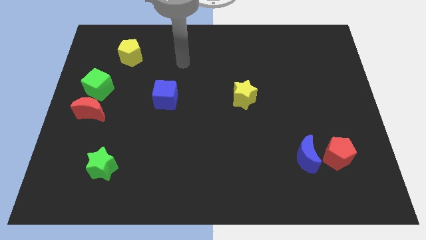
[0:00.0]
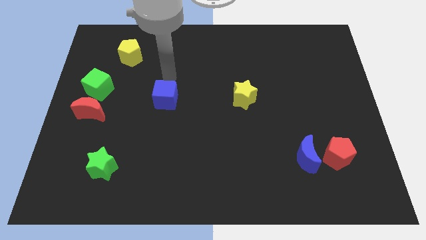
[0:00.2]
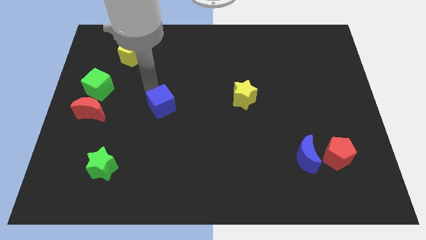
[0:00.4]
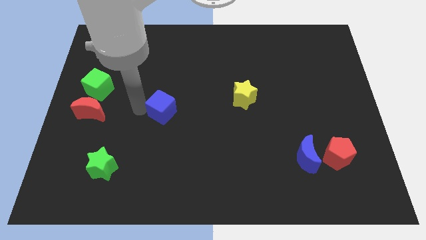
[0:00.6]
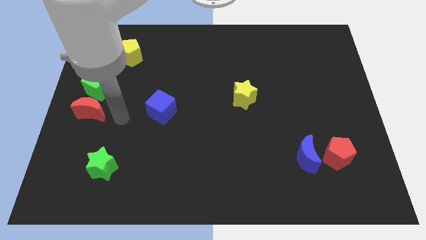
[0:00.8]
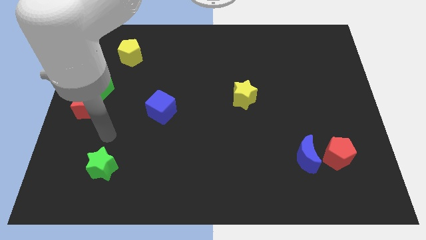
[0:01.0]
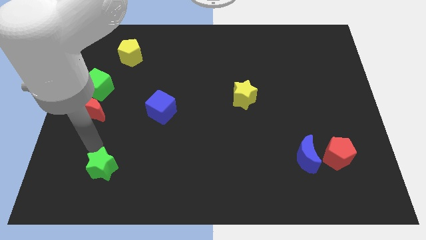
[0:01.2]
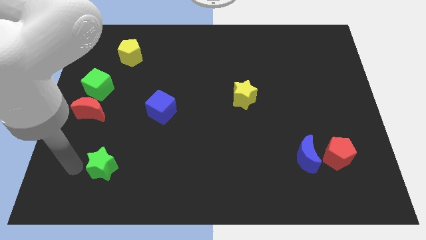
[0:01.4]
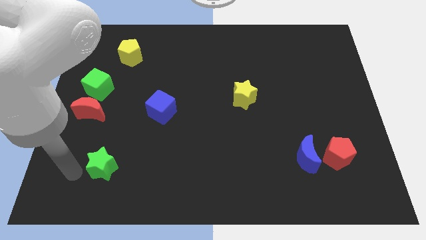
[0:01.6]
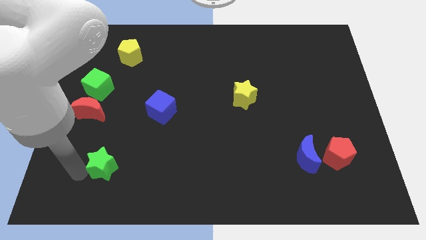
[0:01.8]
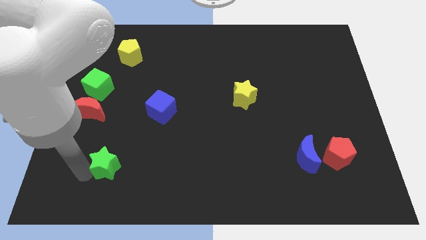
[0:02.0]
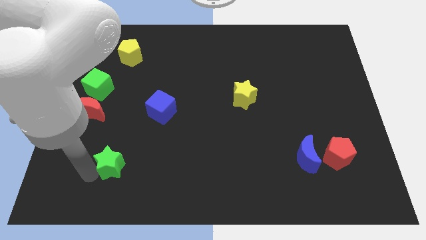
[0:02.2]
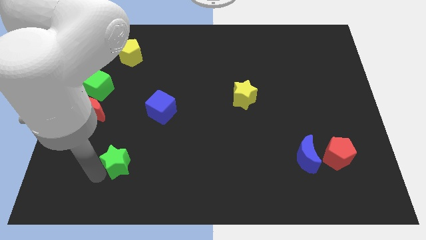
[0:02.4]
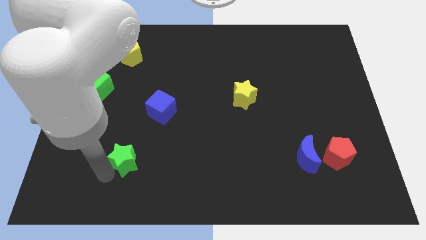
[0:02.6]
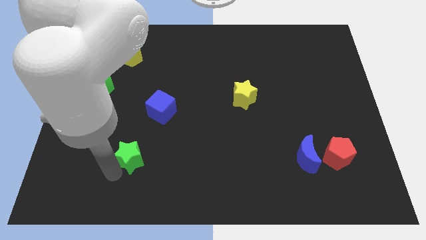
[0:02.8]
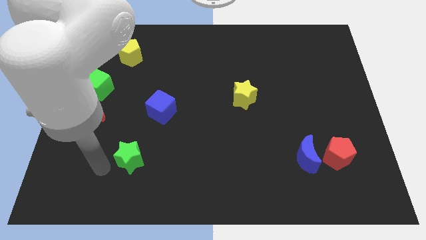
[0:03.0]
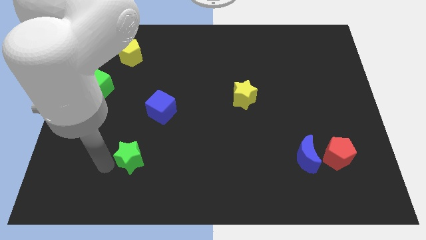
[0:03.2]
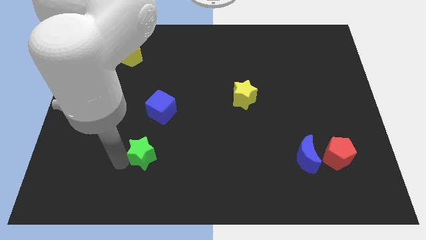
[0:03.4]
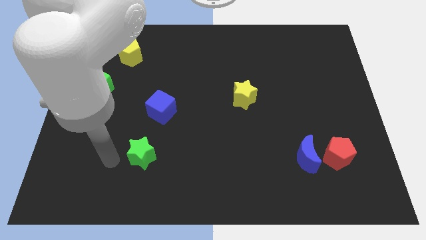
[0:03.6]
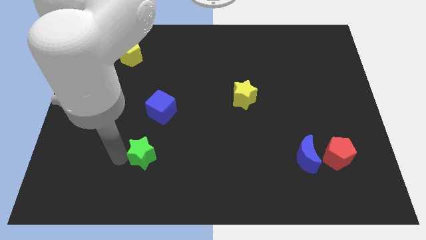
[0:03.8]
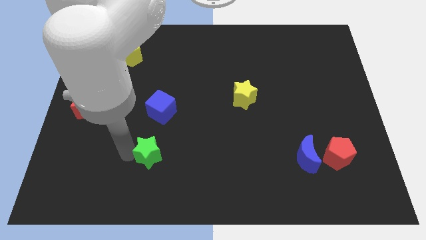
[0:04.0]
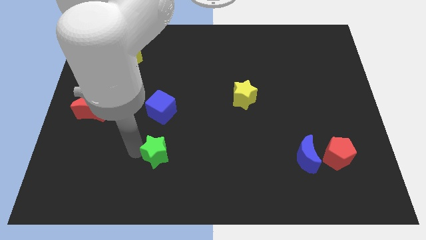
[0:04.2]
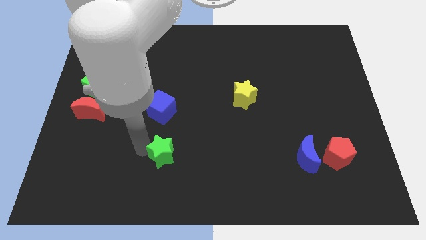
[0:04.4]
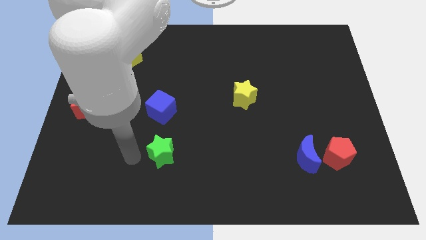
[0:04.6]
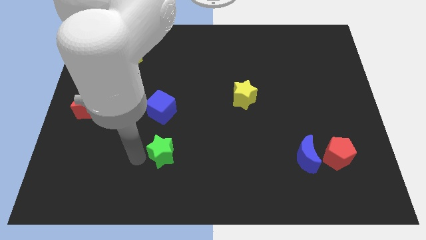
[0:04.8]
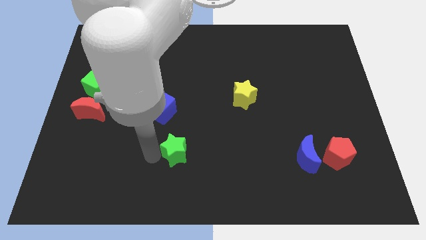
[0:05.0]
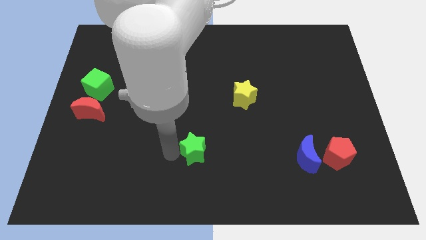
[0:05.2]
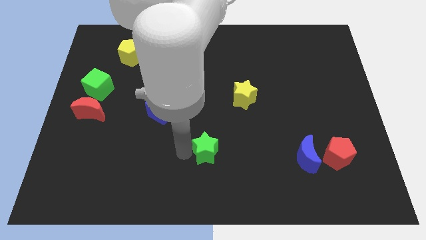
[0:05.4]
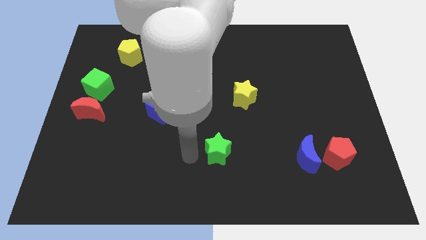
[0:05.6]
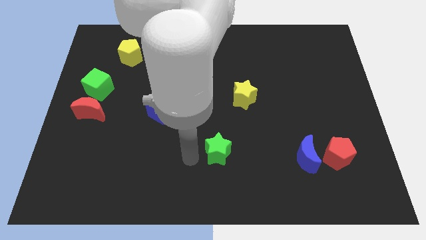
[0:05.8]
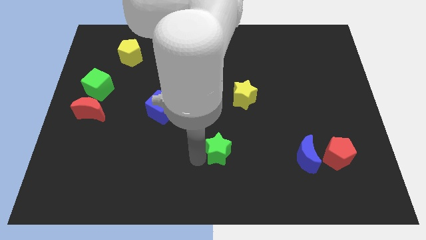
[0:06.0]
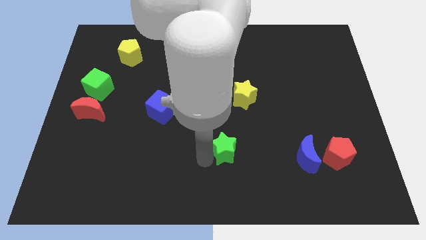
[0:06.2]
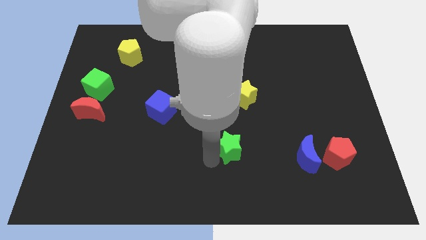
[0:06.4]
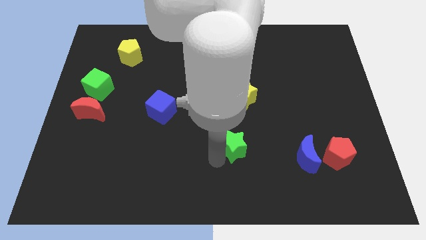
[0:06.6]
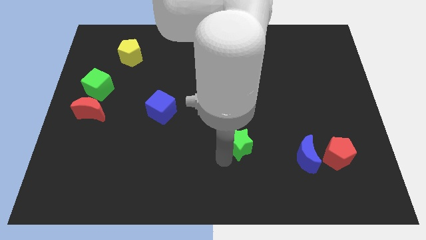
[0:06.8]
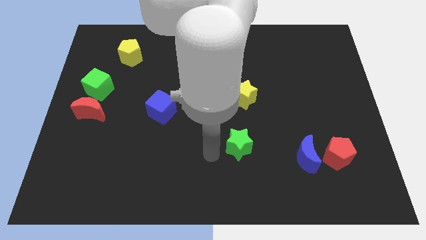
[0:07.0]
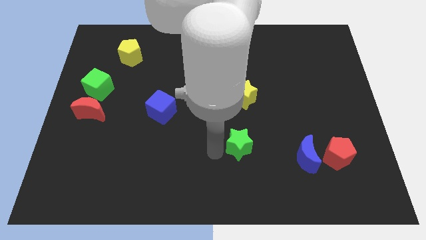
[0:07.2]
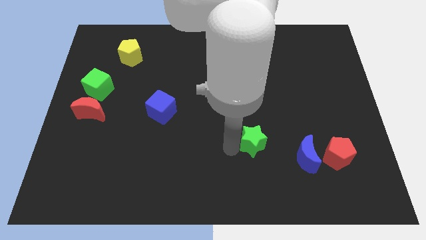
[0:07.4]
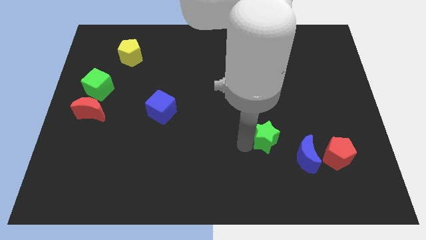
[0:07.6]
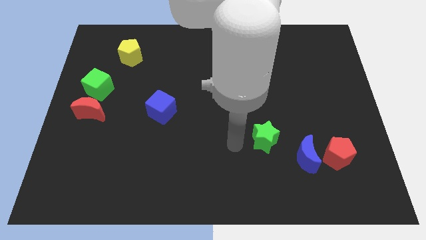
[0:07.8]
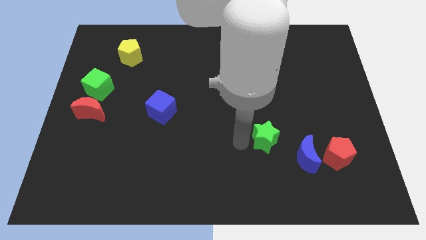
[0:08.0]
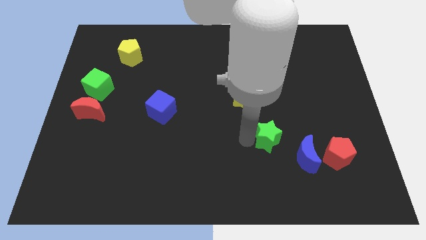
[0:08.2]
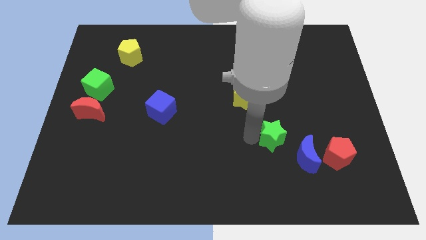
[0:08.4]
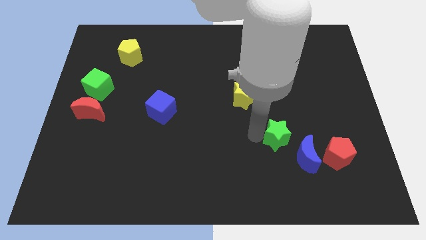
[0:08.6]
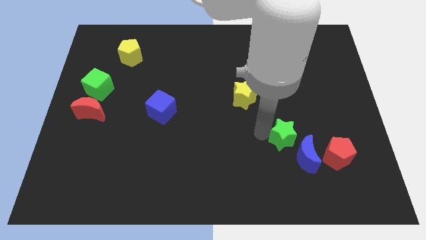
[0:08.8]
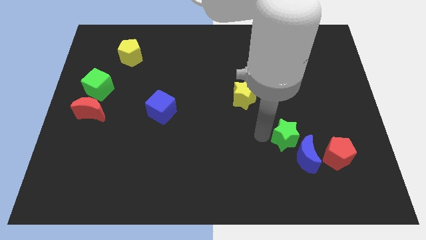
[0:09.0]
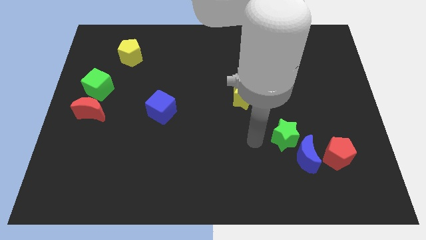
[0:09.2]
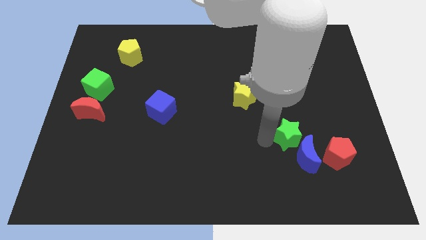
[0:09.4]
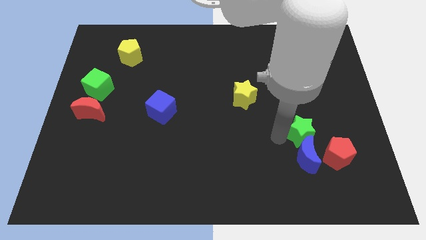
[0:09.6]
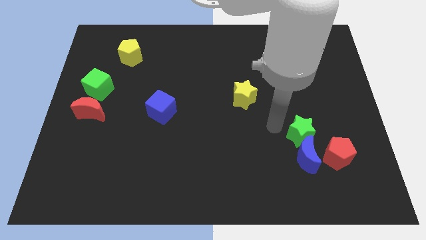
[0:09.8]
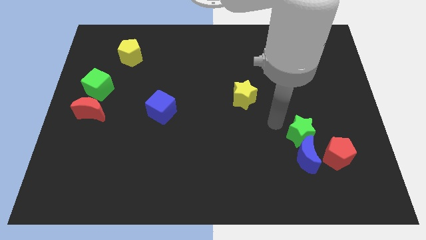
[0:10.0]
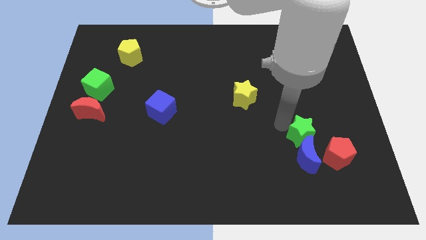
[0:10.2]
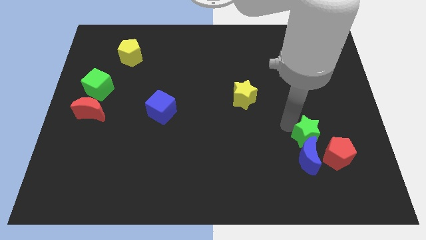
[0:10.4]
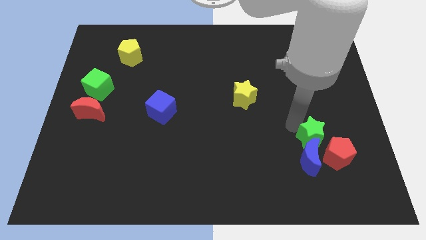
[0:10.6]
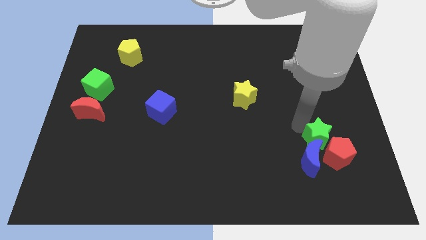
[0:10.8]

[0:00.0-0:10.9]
slide the green star to the red pentagon

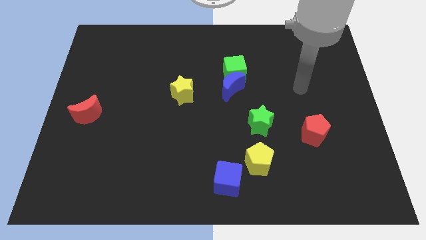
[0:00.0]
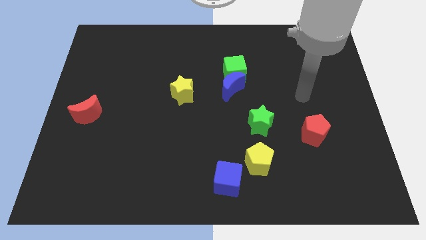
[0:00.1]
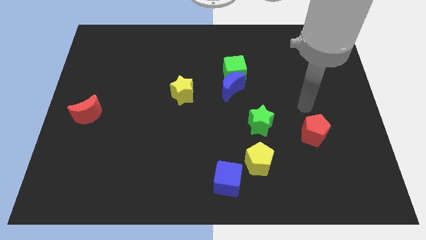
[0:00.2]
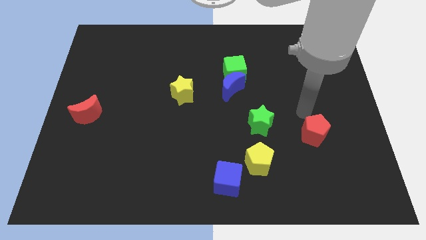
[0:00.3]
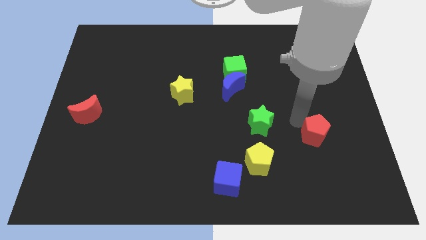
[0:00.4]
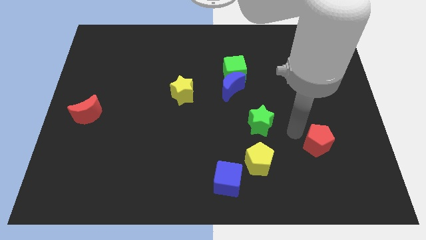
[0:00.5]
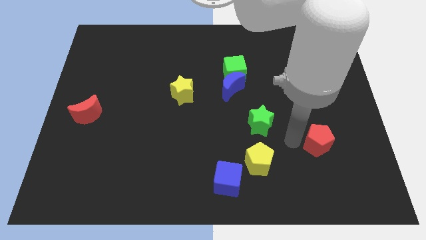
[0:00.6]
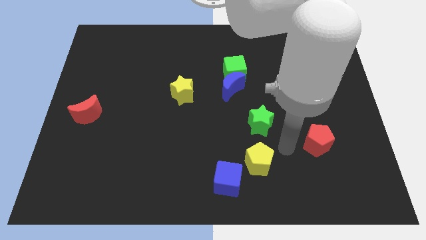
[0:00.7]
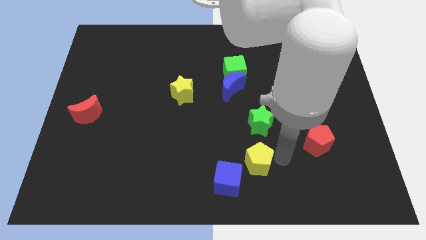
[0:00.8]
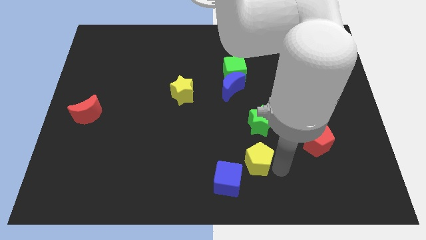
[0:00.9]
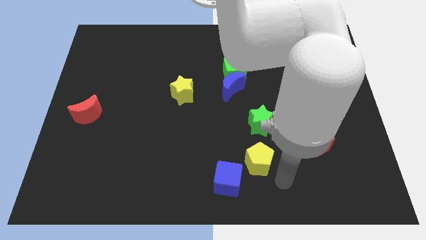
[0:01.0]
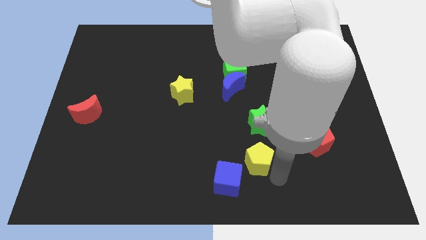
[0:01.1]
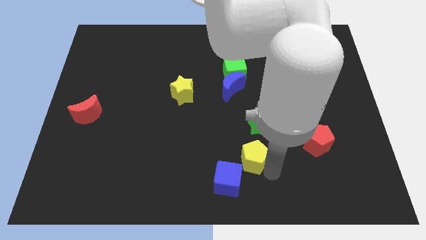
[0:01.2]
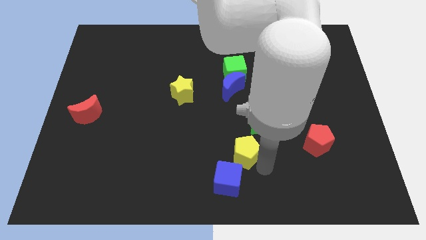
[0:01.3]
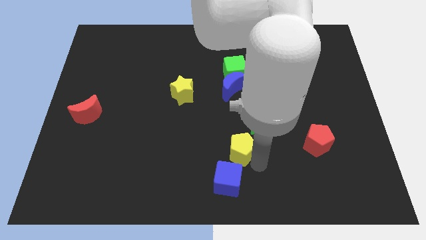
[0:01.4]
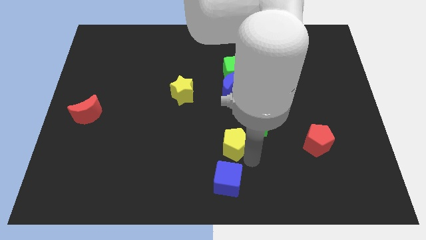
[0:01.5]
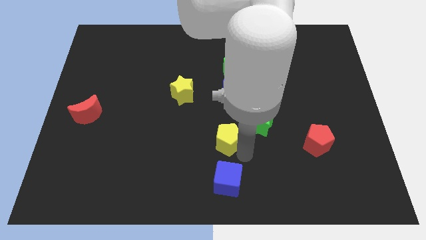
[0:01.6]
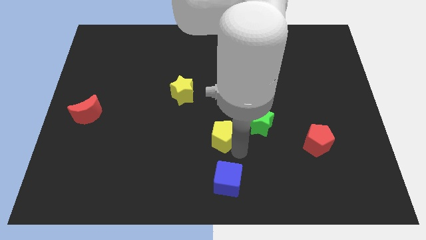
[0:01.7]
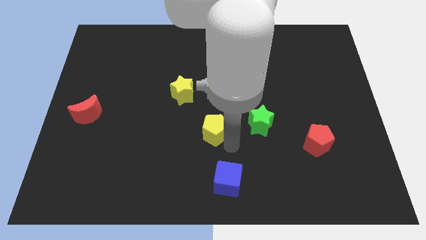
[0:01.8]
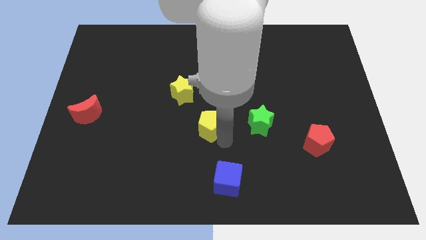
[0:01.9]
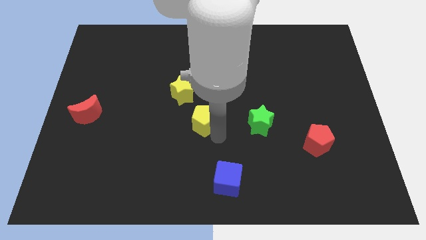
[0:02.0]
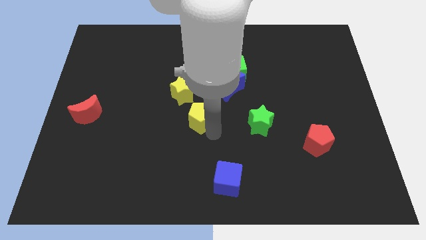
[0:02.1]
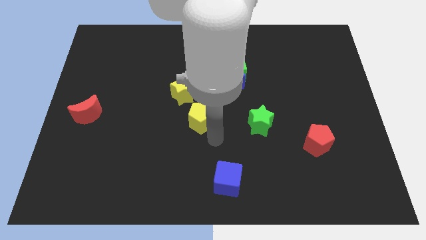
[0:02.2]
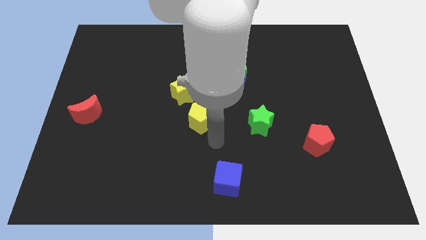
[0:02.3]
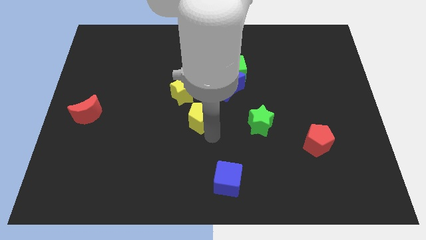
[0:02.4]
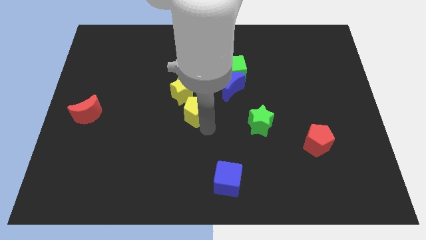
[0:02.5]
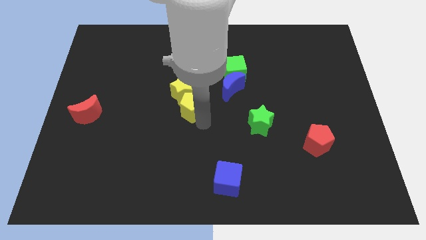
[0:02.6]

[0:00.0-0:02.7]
push the yellow pentagon next to the yellow star
